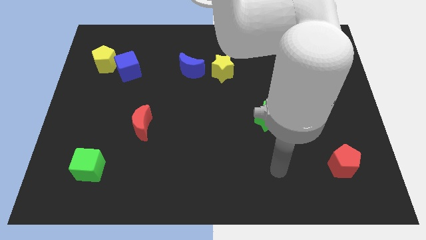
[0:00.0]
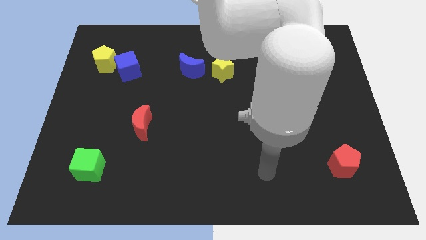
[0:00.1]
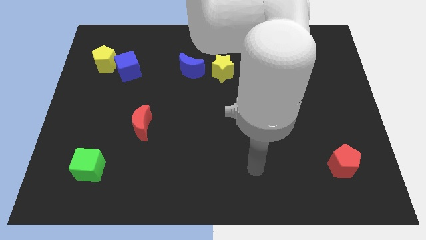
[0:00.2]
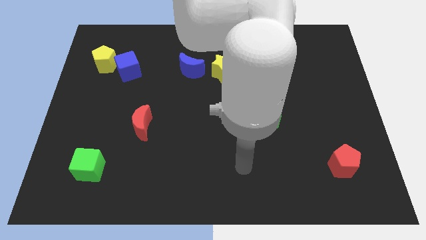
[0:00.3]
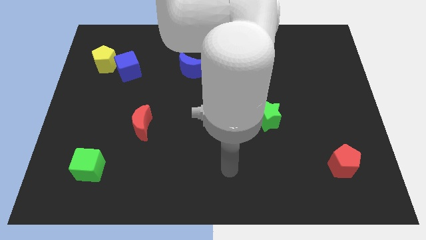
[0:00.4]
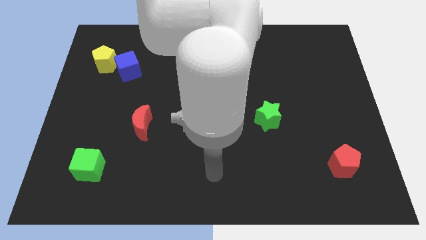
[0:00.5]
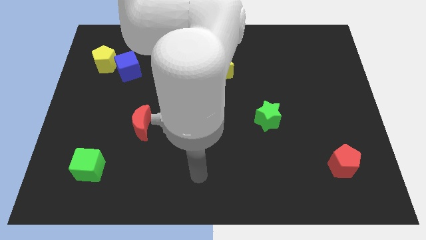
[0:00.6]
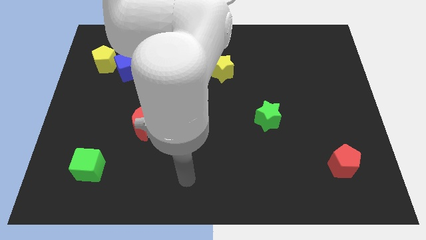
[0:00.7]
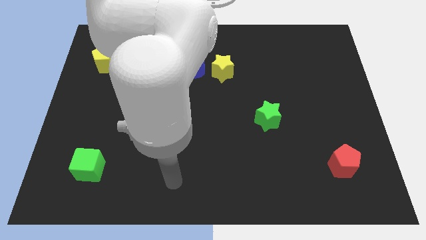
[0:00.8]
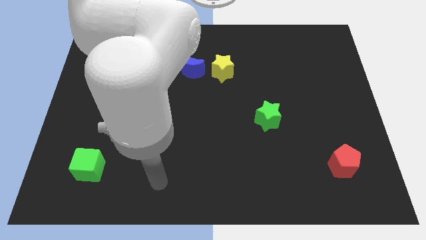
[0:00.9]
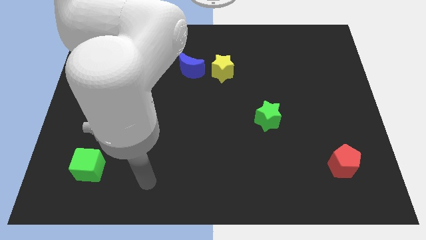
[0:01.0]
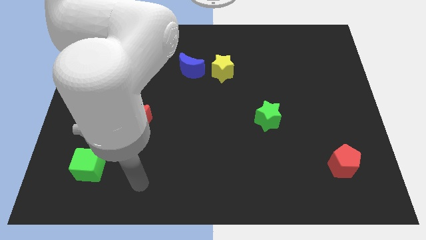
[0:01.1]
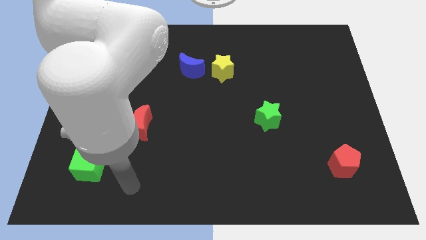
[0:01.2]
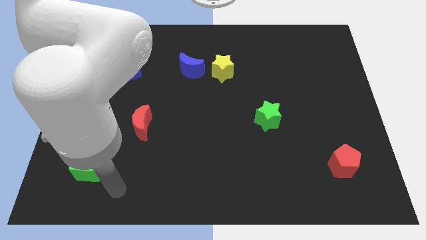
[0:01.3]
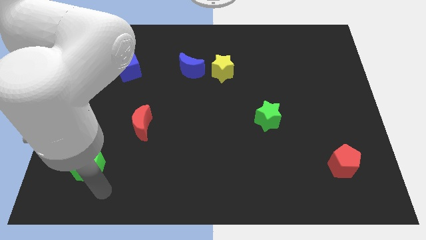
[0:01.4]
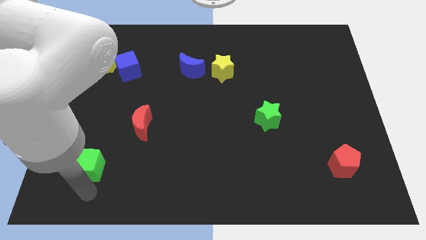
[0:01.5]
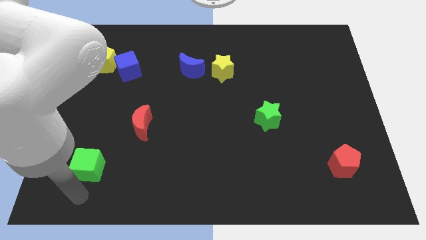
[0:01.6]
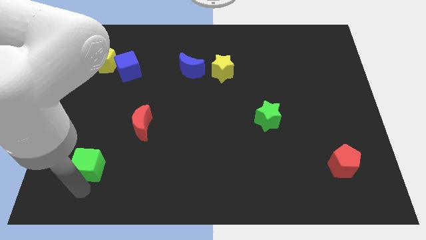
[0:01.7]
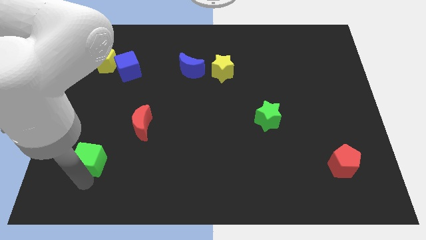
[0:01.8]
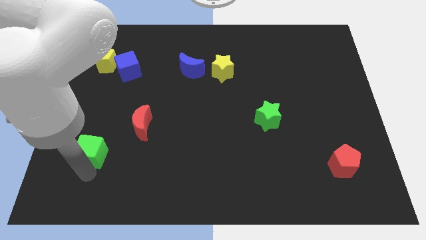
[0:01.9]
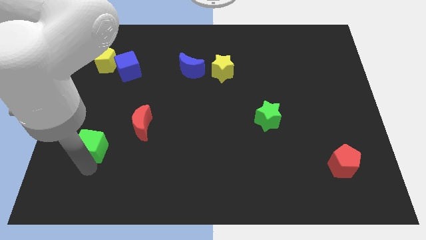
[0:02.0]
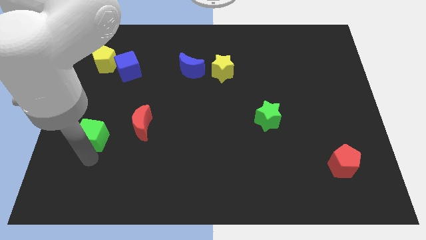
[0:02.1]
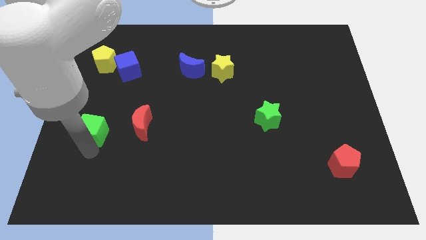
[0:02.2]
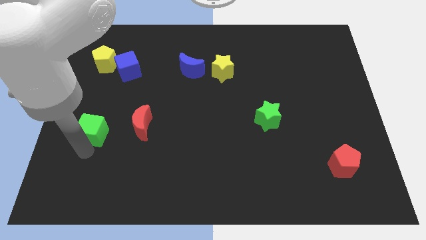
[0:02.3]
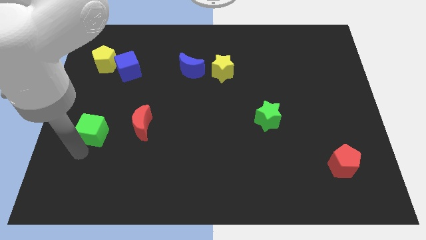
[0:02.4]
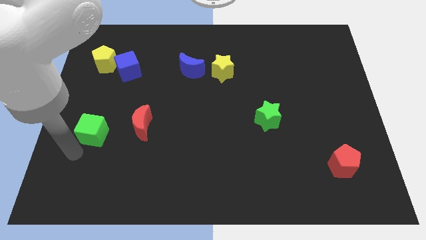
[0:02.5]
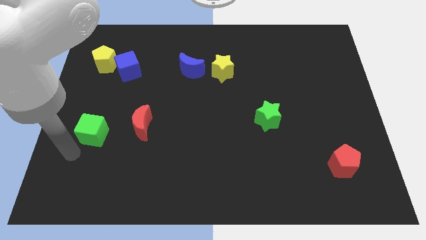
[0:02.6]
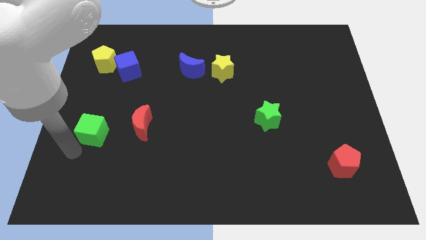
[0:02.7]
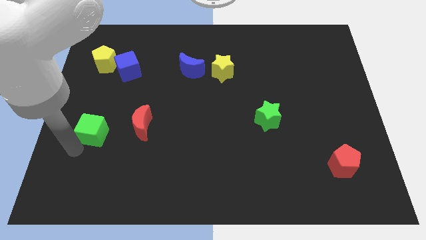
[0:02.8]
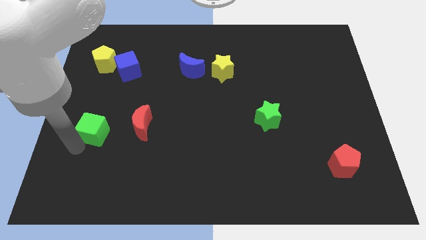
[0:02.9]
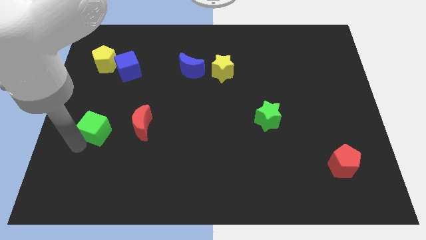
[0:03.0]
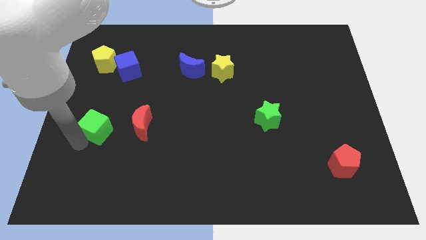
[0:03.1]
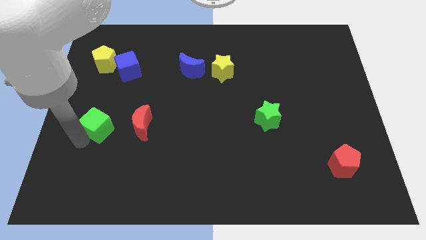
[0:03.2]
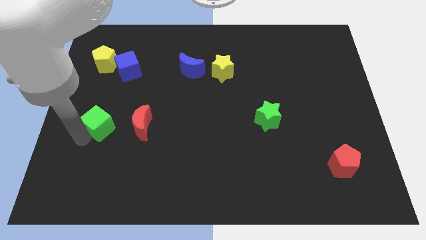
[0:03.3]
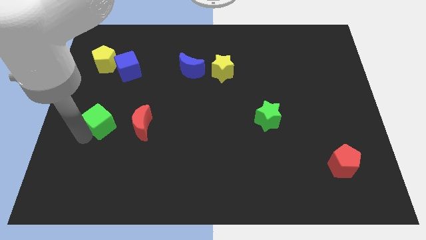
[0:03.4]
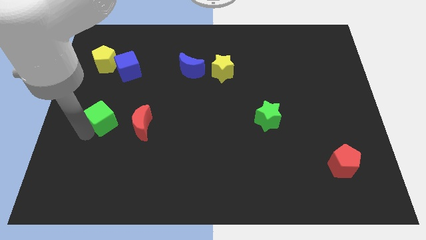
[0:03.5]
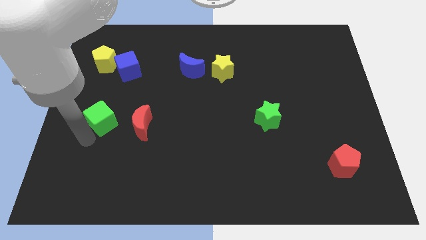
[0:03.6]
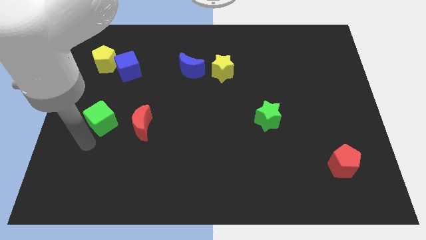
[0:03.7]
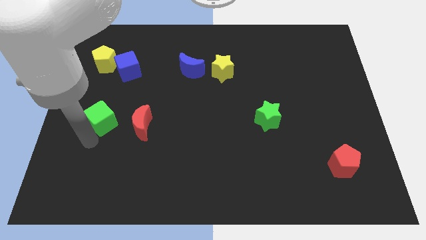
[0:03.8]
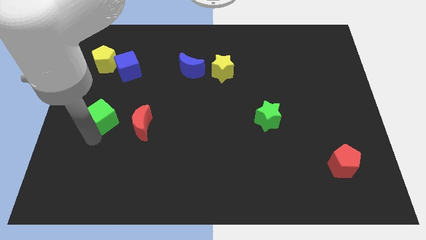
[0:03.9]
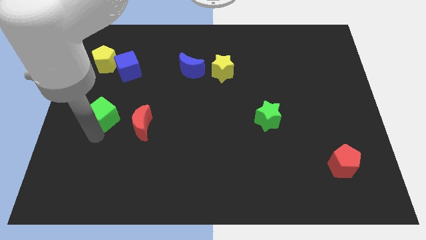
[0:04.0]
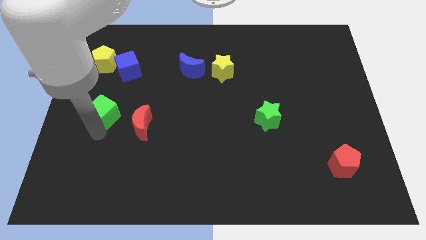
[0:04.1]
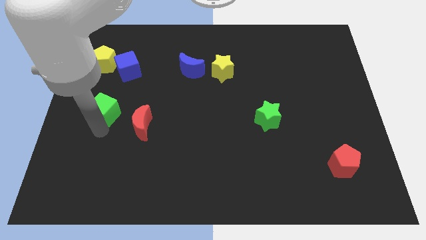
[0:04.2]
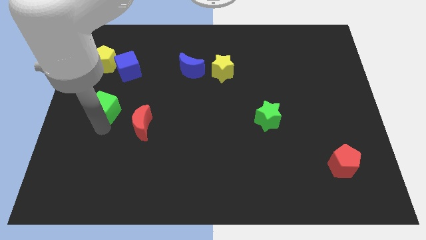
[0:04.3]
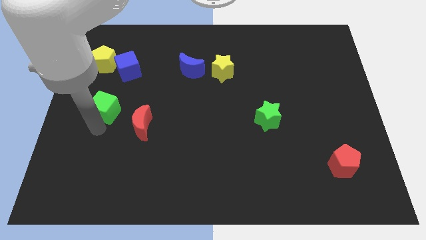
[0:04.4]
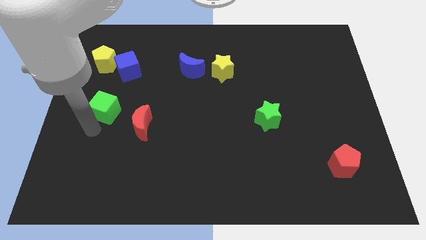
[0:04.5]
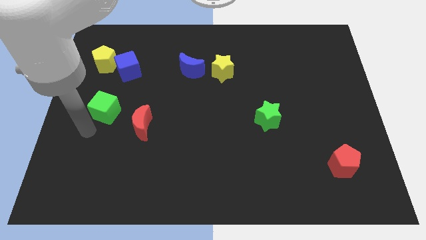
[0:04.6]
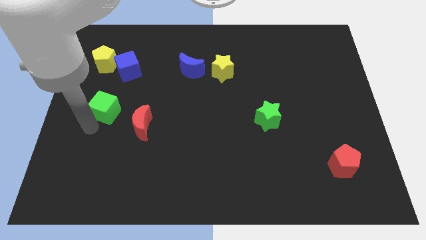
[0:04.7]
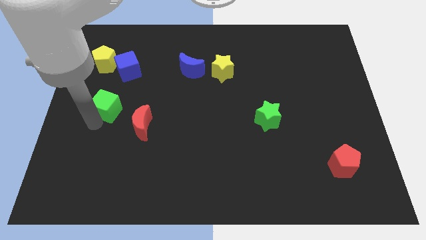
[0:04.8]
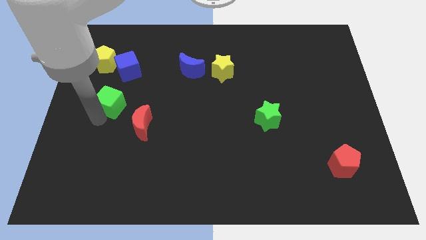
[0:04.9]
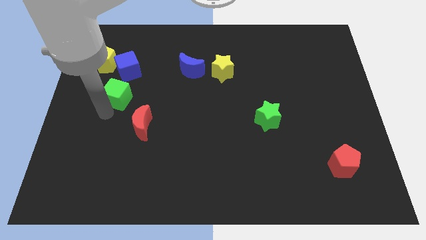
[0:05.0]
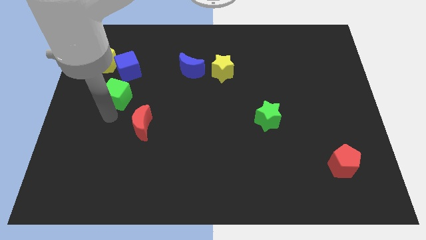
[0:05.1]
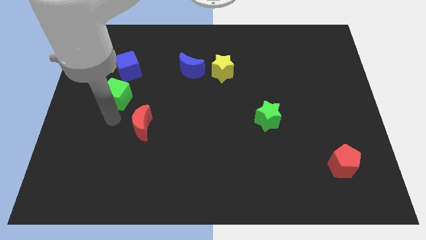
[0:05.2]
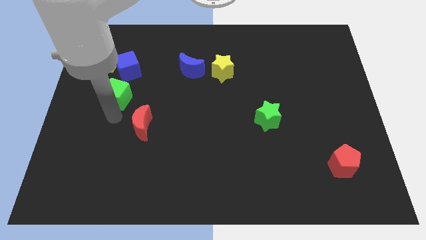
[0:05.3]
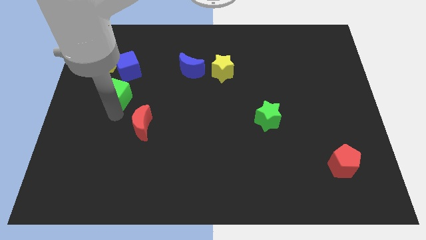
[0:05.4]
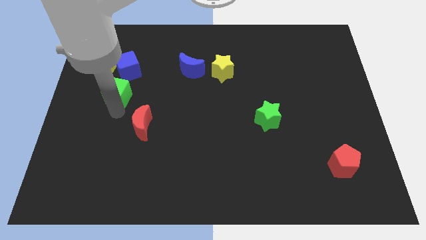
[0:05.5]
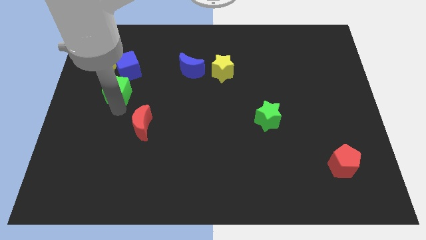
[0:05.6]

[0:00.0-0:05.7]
move the green cube to the bottom right side of the yellow pentagon

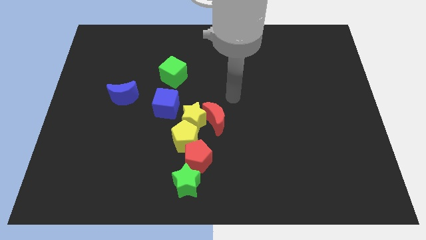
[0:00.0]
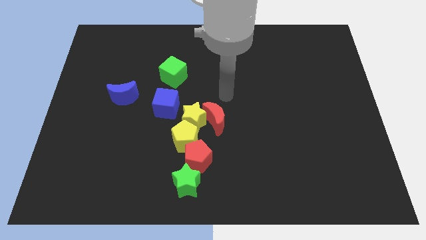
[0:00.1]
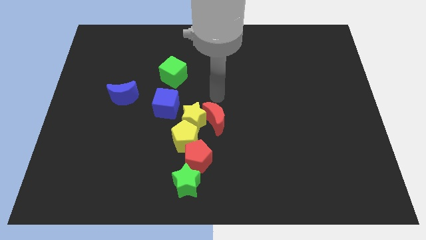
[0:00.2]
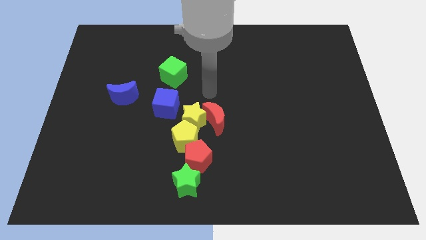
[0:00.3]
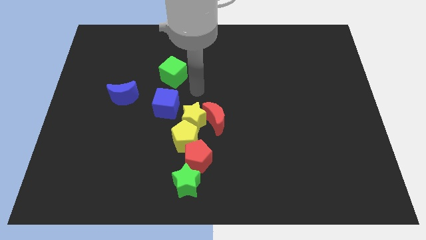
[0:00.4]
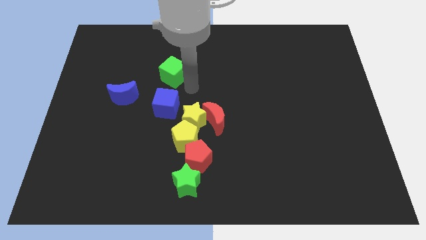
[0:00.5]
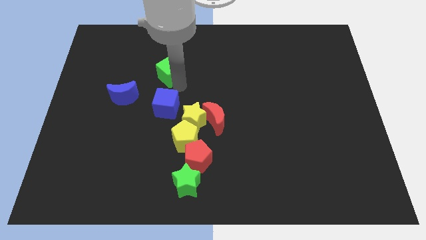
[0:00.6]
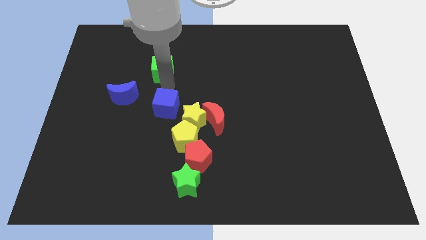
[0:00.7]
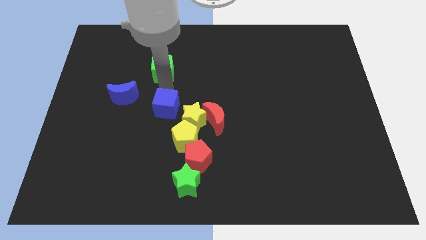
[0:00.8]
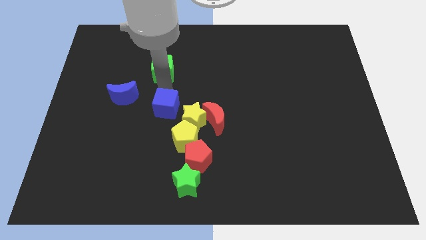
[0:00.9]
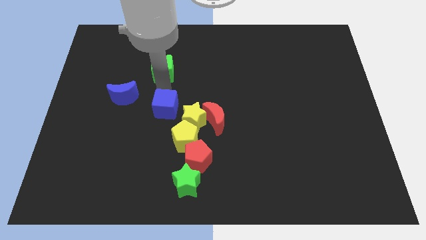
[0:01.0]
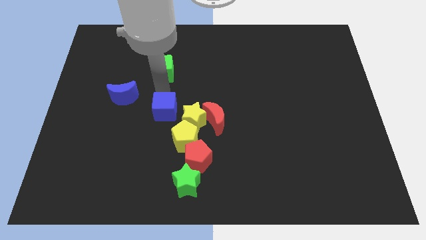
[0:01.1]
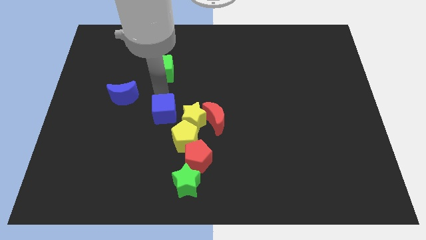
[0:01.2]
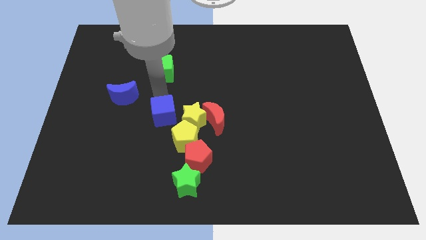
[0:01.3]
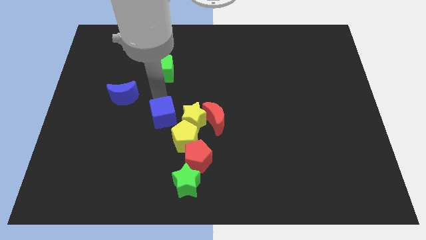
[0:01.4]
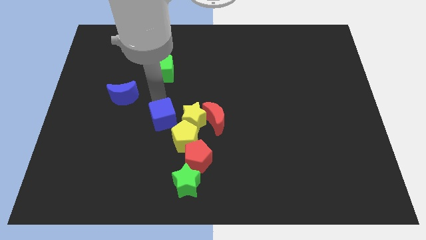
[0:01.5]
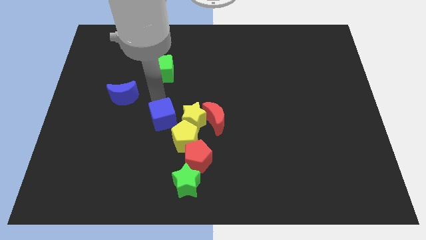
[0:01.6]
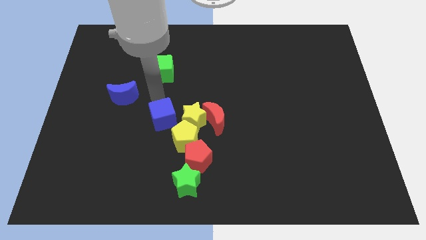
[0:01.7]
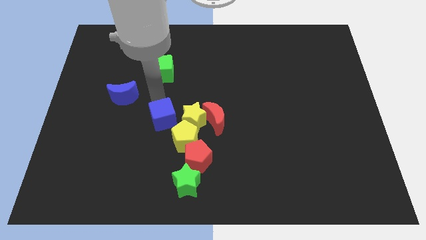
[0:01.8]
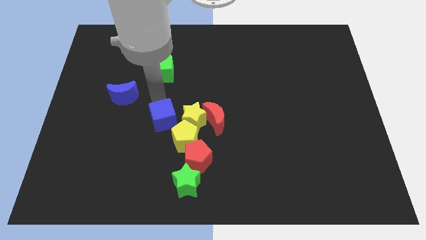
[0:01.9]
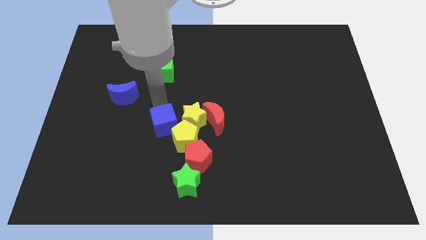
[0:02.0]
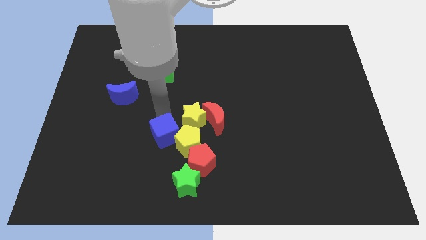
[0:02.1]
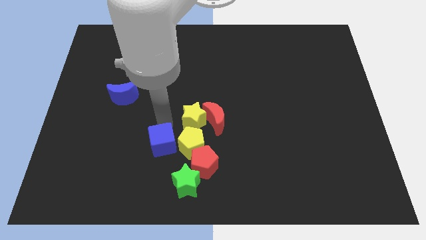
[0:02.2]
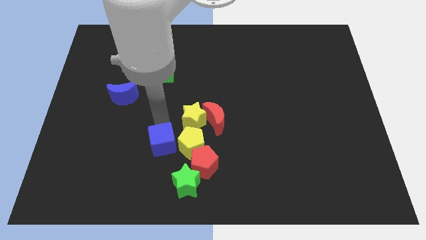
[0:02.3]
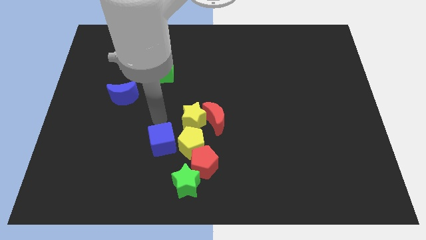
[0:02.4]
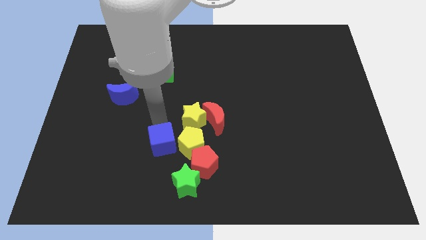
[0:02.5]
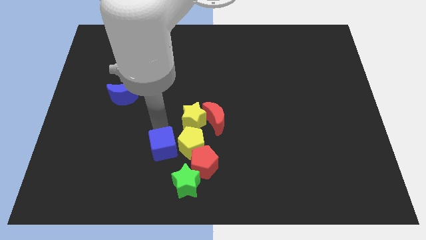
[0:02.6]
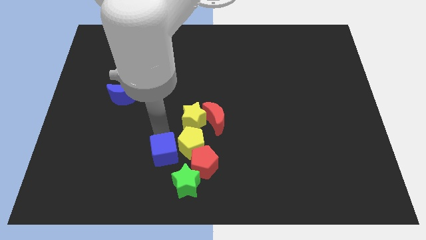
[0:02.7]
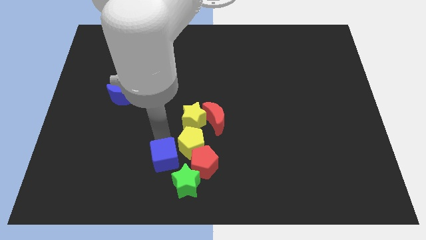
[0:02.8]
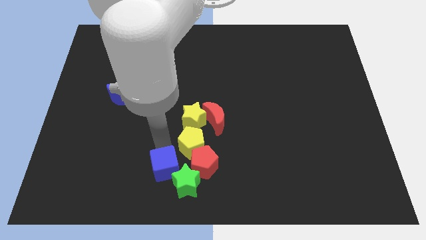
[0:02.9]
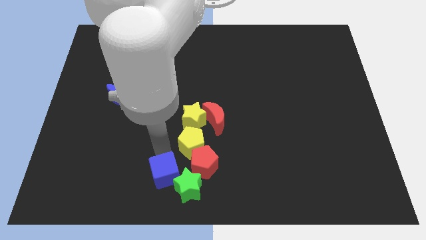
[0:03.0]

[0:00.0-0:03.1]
push the blue cube to the bottom left side of the red pentagon
